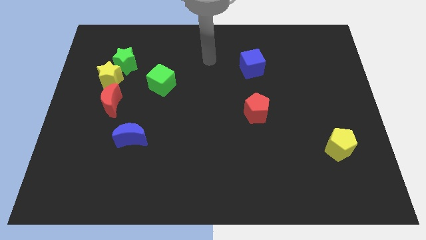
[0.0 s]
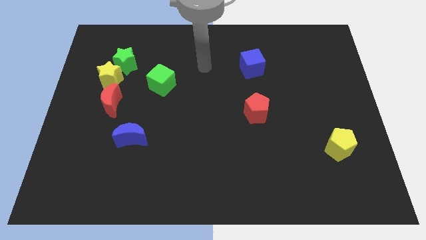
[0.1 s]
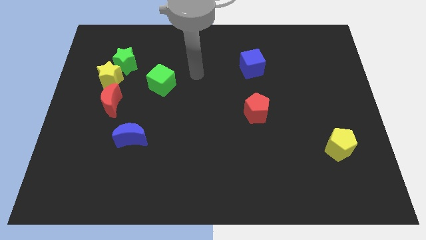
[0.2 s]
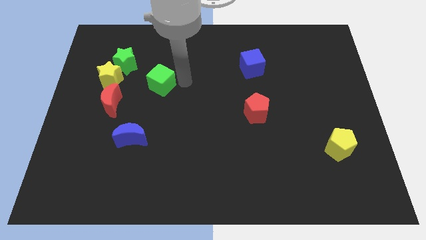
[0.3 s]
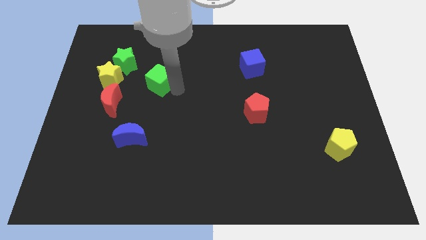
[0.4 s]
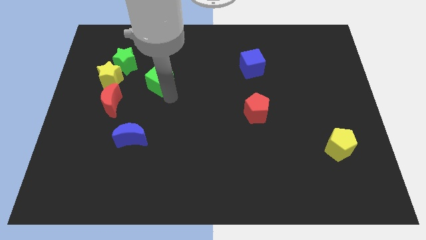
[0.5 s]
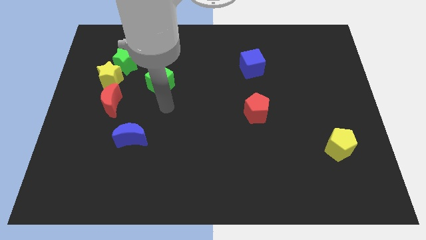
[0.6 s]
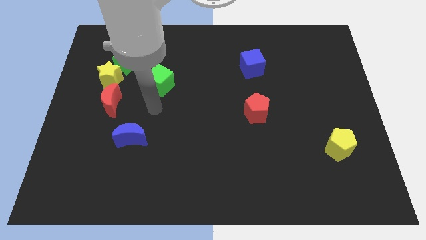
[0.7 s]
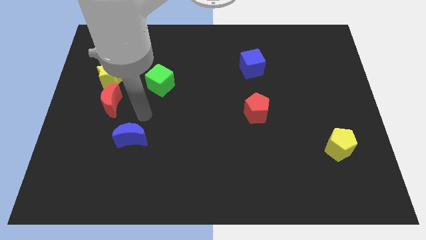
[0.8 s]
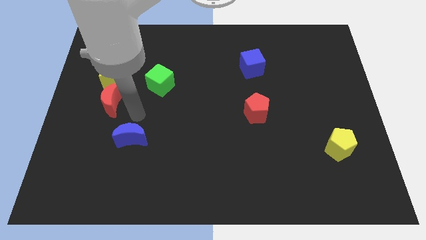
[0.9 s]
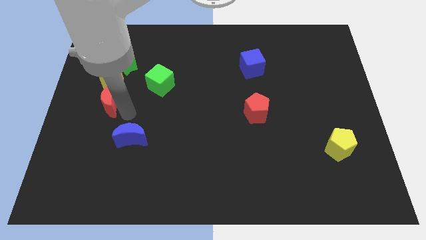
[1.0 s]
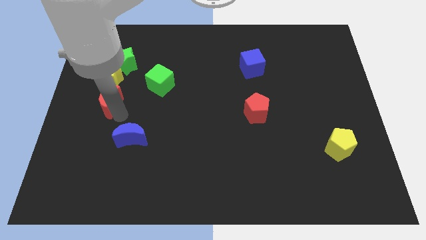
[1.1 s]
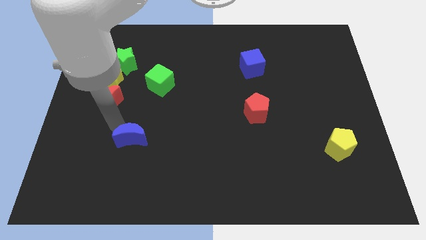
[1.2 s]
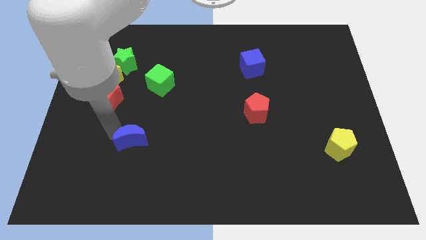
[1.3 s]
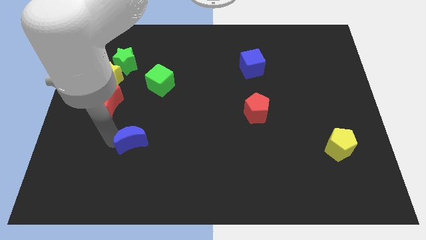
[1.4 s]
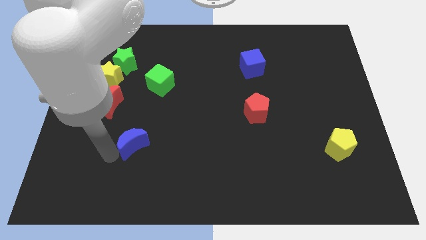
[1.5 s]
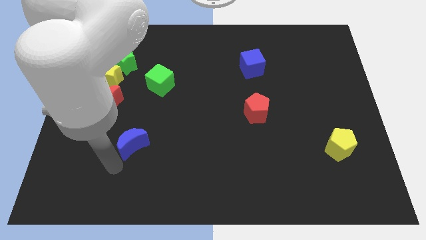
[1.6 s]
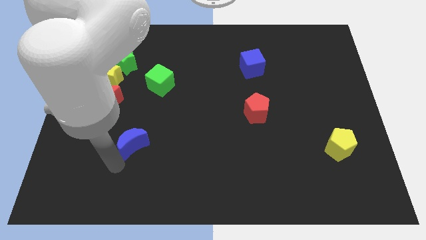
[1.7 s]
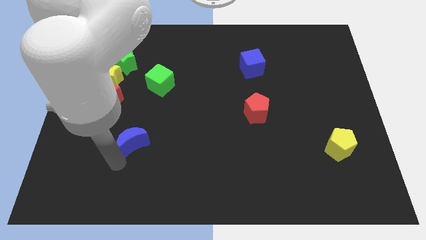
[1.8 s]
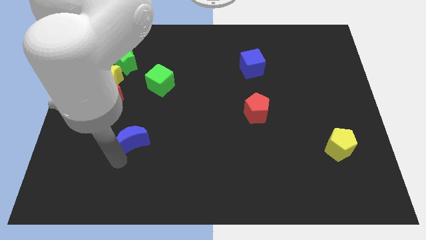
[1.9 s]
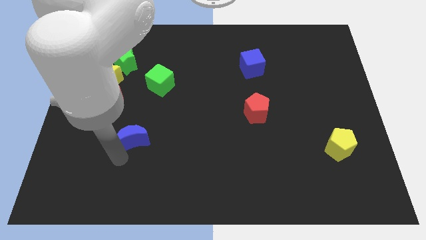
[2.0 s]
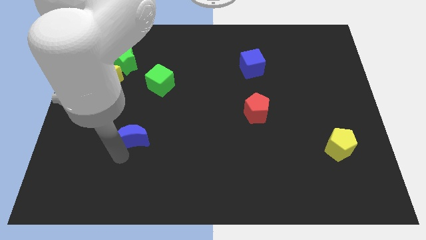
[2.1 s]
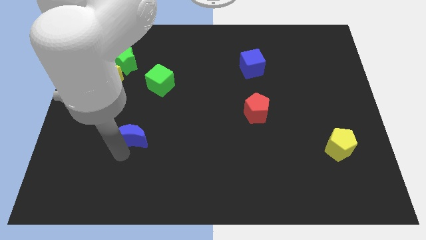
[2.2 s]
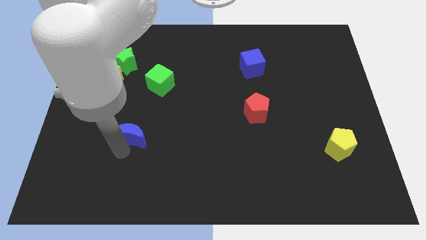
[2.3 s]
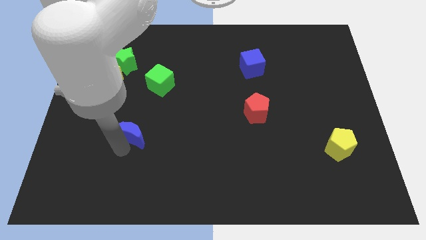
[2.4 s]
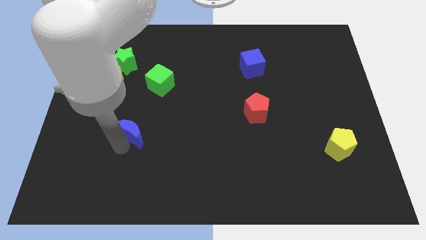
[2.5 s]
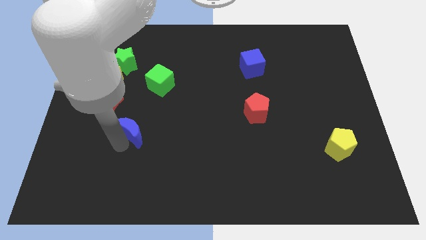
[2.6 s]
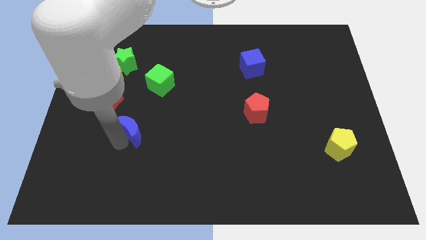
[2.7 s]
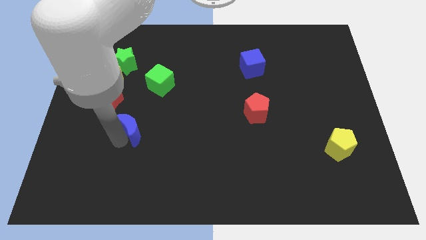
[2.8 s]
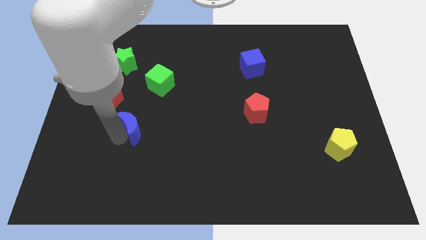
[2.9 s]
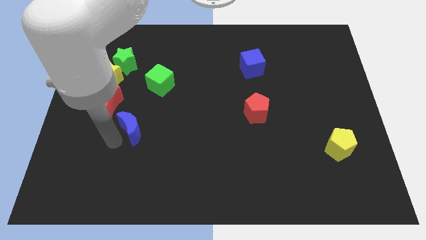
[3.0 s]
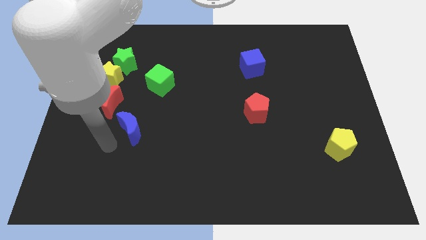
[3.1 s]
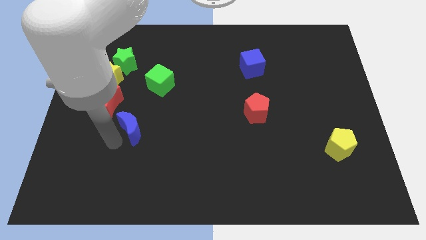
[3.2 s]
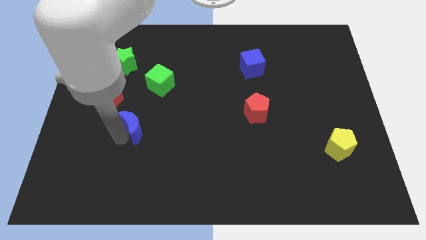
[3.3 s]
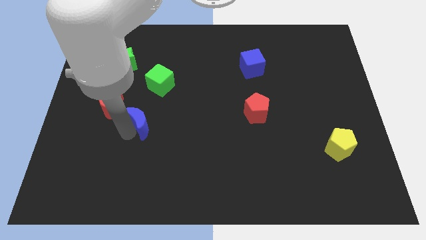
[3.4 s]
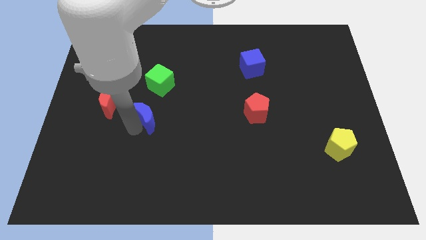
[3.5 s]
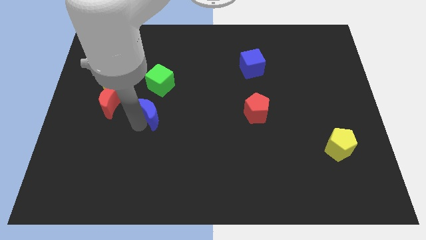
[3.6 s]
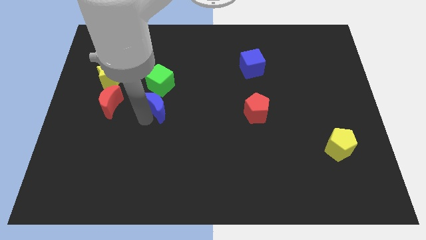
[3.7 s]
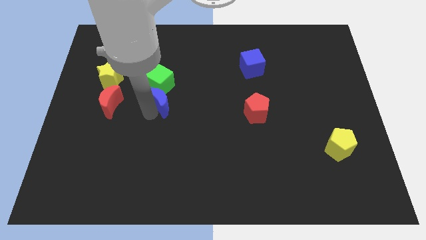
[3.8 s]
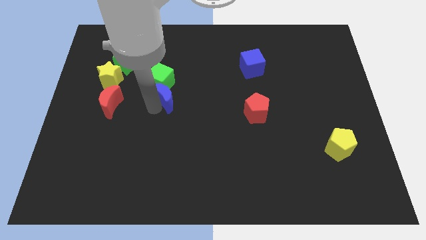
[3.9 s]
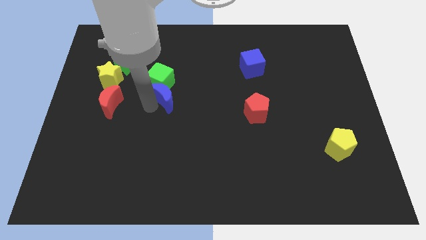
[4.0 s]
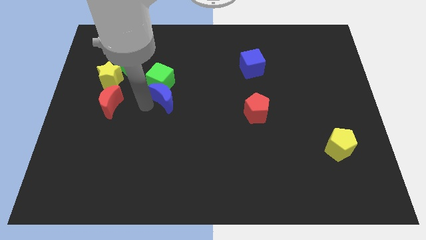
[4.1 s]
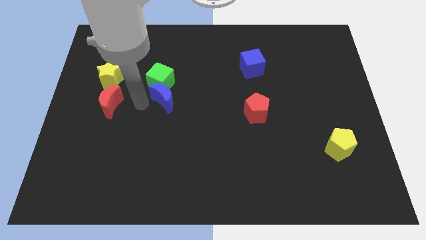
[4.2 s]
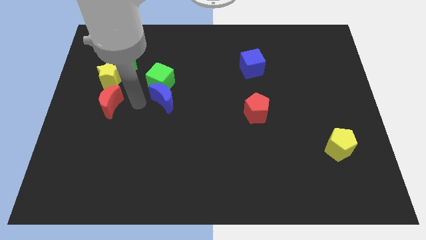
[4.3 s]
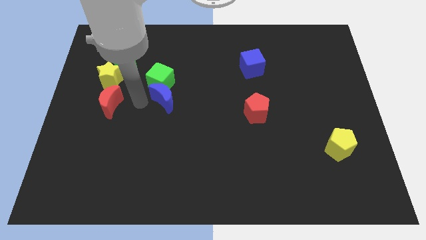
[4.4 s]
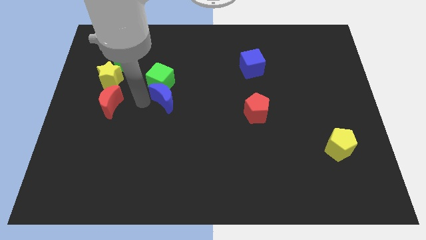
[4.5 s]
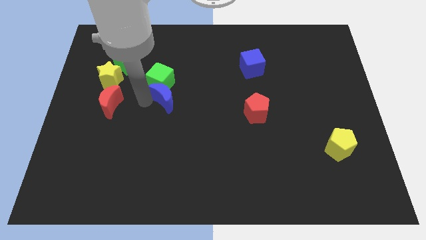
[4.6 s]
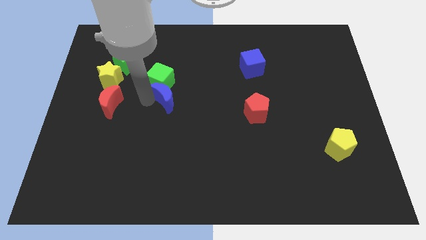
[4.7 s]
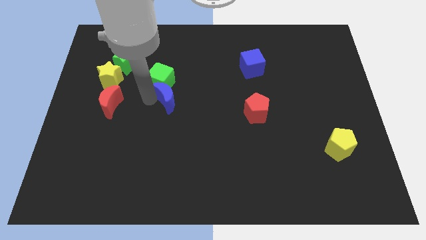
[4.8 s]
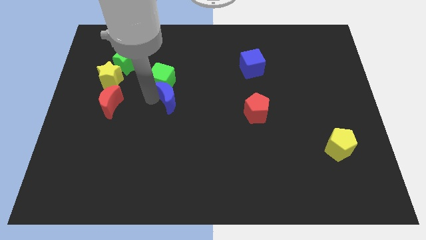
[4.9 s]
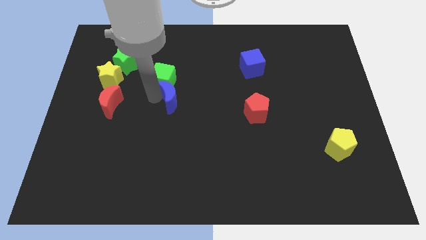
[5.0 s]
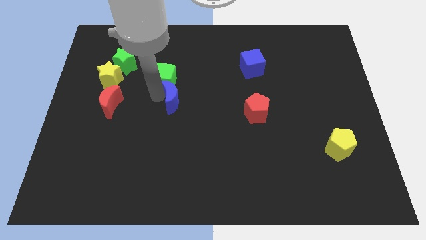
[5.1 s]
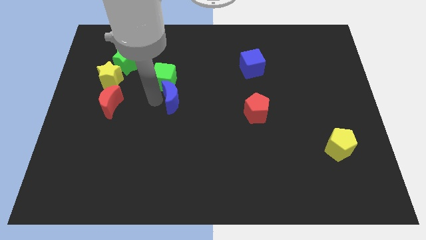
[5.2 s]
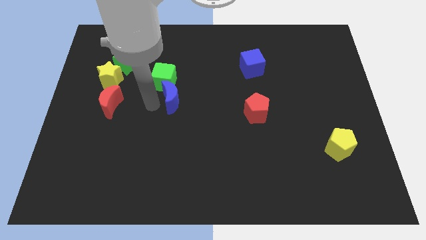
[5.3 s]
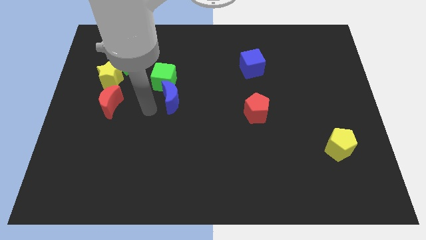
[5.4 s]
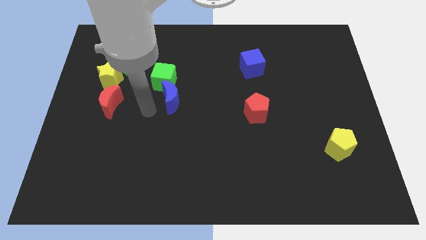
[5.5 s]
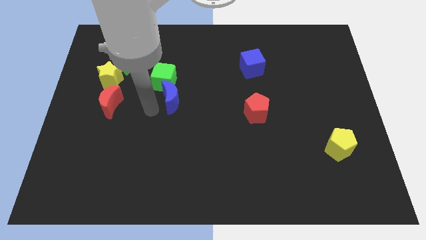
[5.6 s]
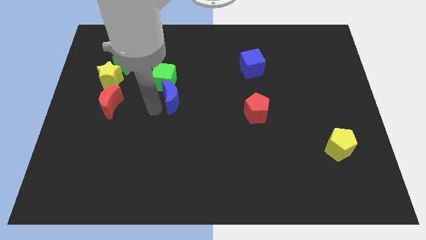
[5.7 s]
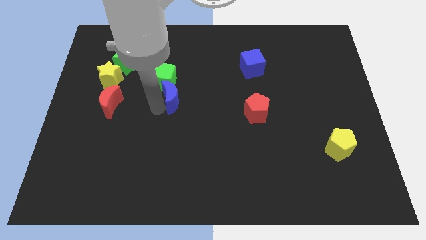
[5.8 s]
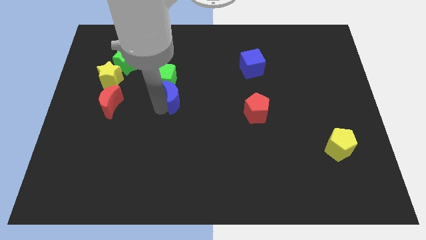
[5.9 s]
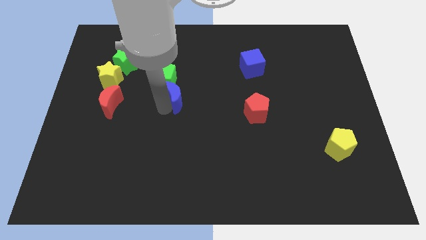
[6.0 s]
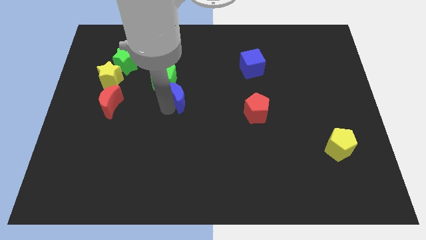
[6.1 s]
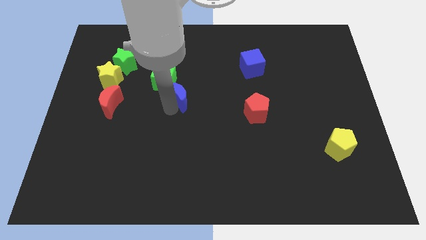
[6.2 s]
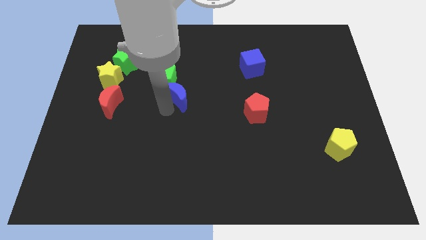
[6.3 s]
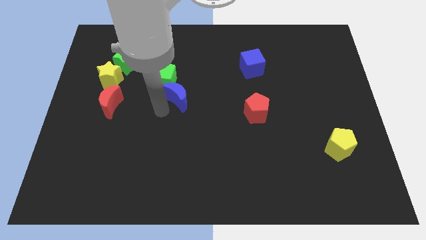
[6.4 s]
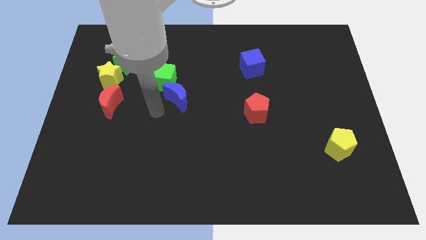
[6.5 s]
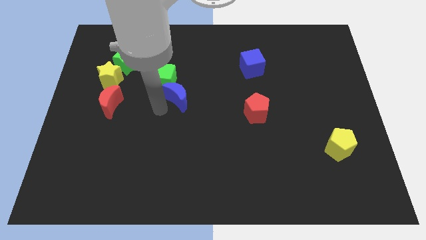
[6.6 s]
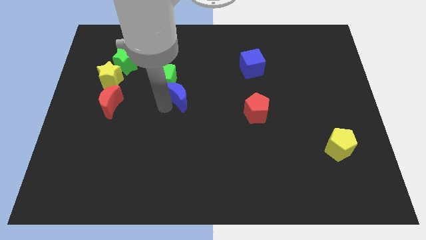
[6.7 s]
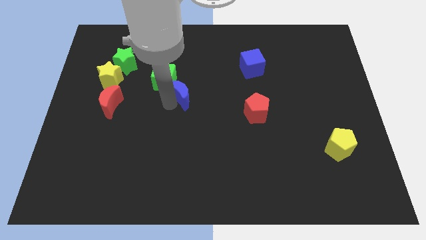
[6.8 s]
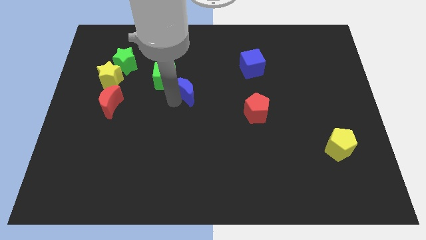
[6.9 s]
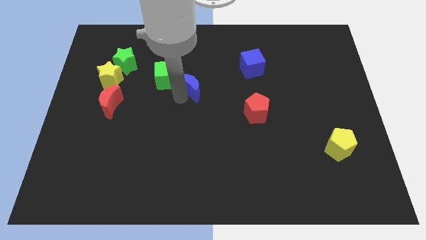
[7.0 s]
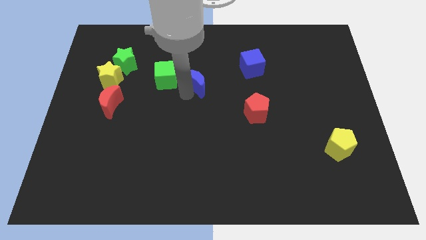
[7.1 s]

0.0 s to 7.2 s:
push the blue moon diagonally upwards and to the right

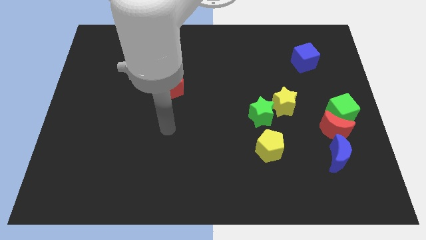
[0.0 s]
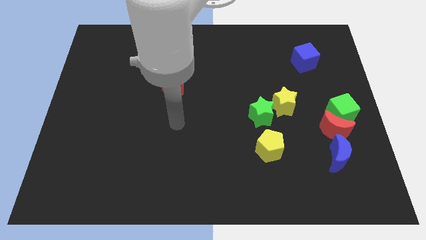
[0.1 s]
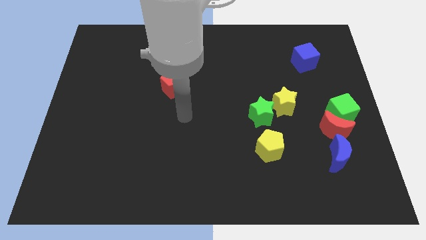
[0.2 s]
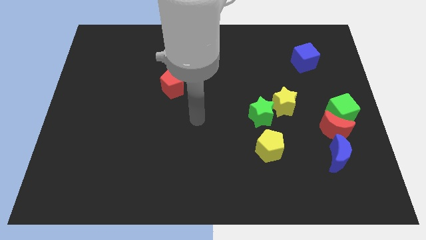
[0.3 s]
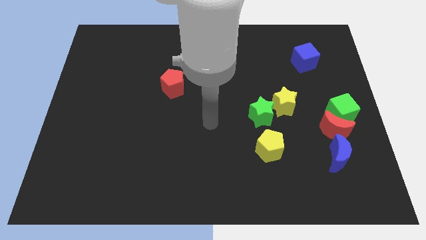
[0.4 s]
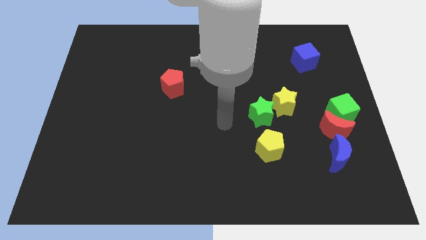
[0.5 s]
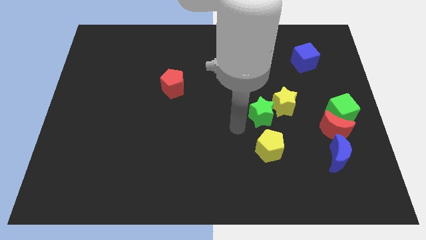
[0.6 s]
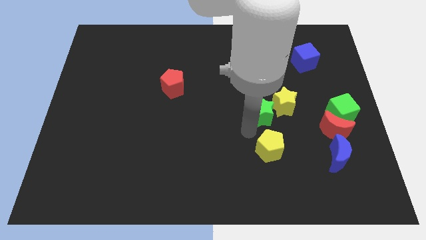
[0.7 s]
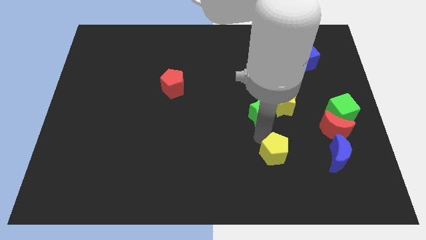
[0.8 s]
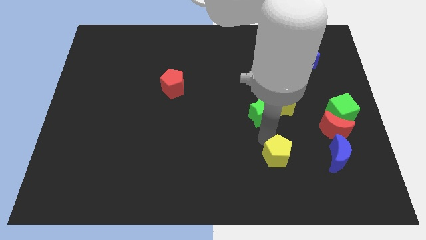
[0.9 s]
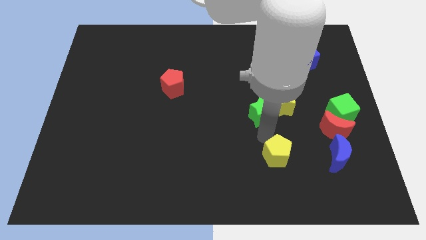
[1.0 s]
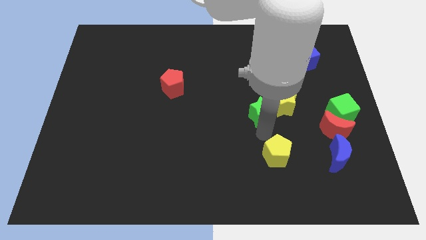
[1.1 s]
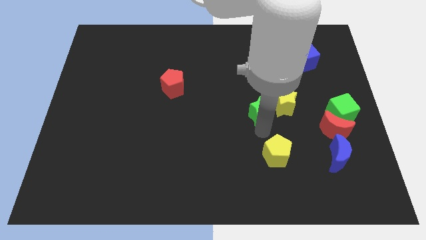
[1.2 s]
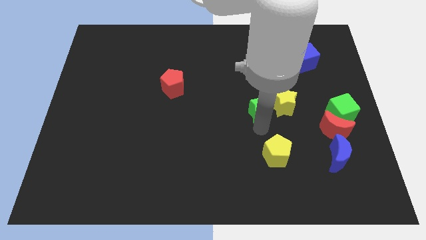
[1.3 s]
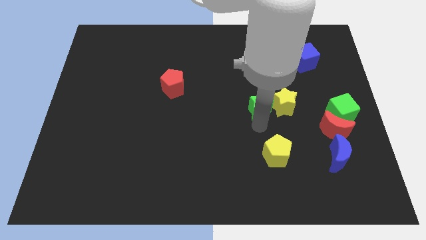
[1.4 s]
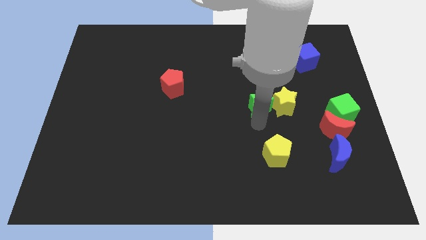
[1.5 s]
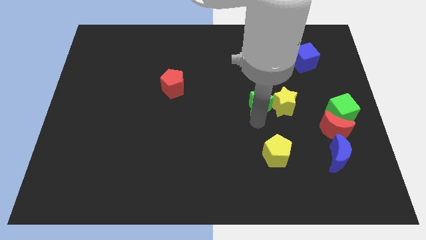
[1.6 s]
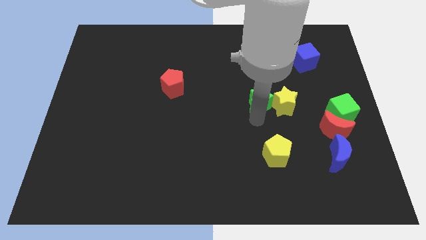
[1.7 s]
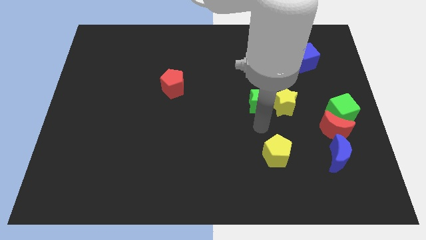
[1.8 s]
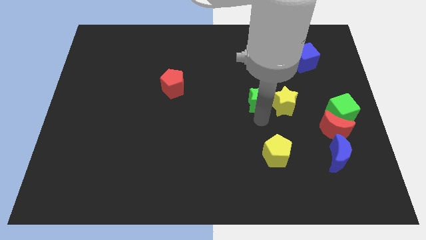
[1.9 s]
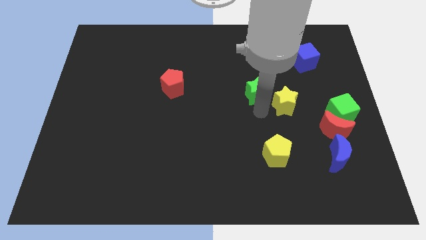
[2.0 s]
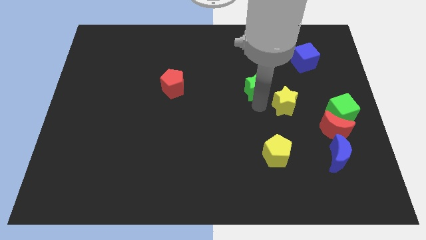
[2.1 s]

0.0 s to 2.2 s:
move the green star a bit up
